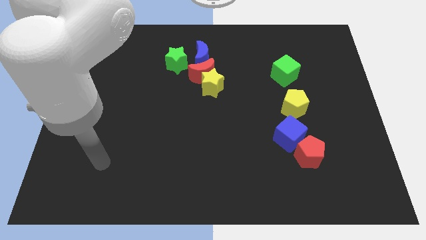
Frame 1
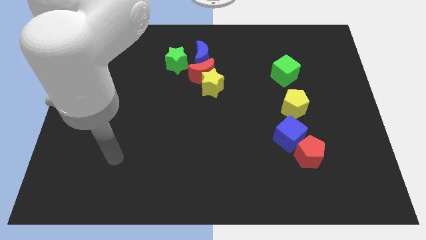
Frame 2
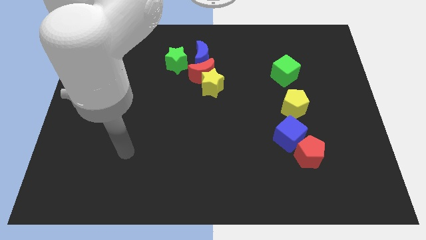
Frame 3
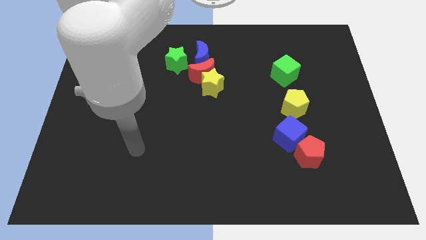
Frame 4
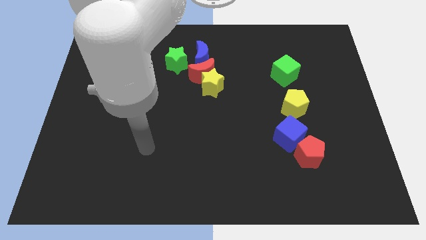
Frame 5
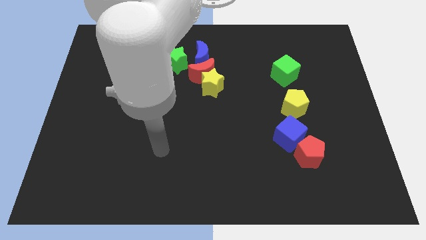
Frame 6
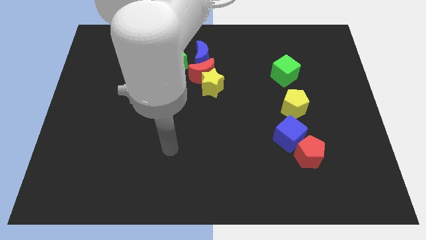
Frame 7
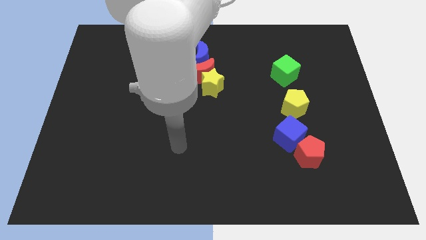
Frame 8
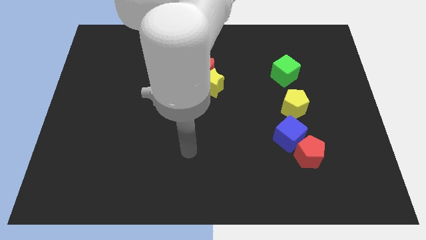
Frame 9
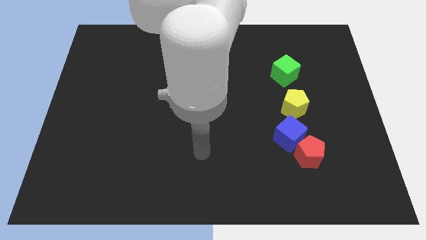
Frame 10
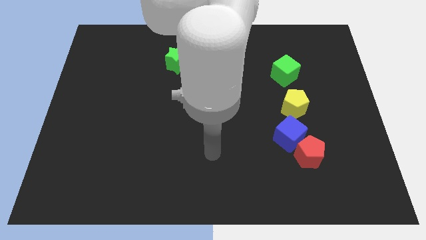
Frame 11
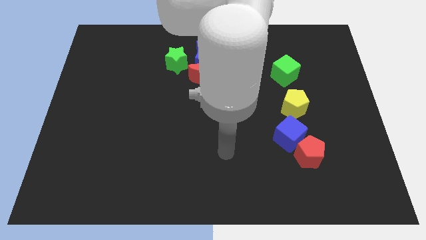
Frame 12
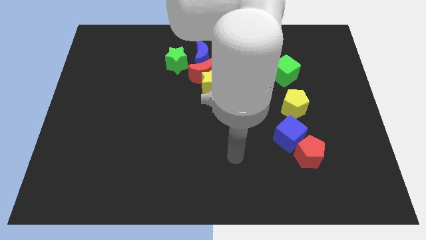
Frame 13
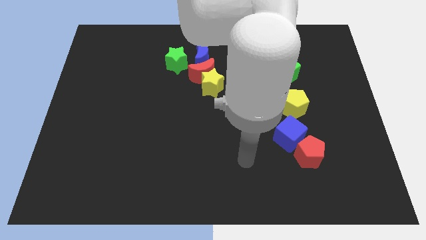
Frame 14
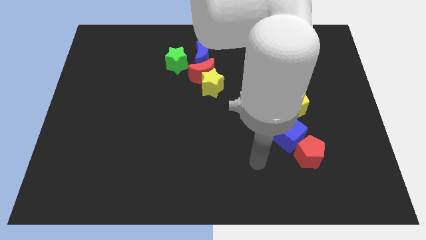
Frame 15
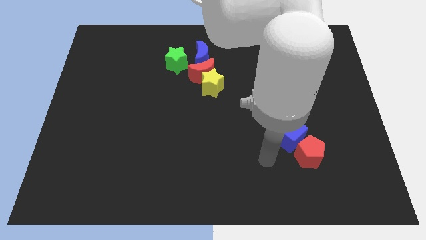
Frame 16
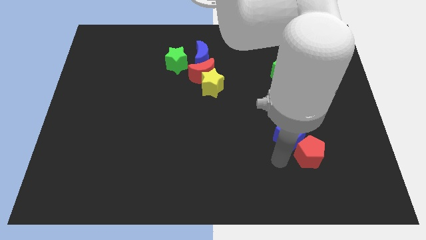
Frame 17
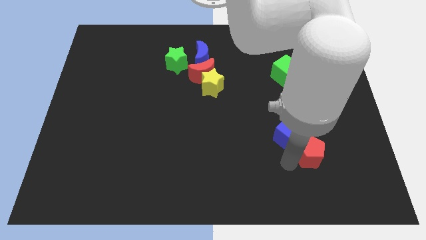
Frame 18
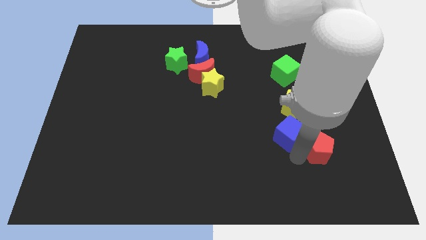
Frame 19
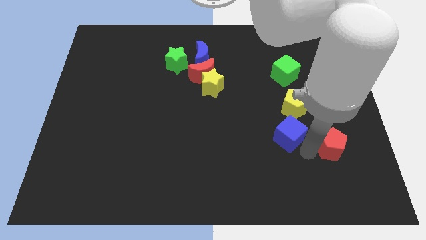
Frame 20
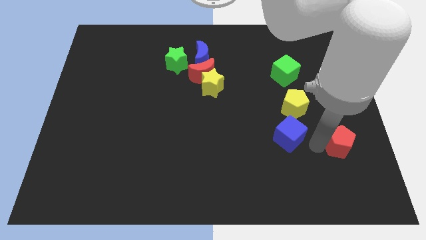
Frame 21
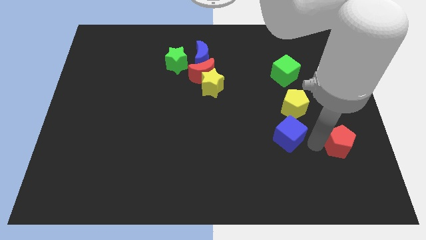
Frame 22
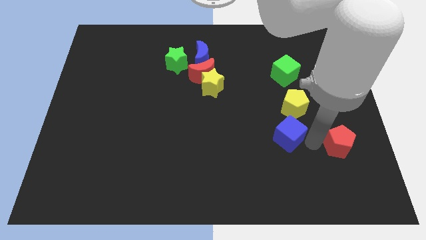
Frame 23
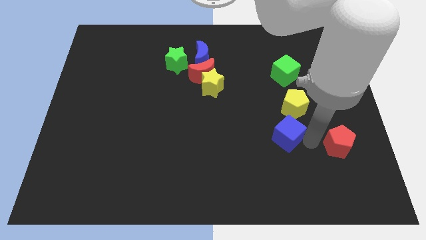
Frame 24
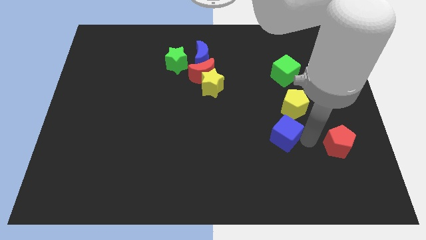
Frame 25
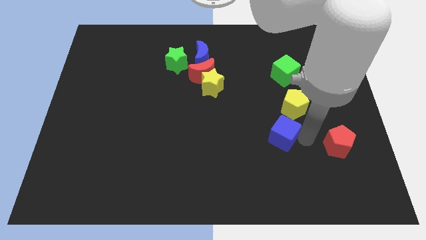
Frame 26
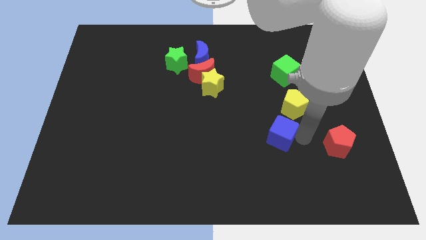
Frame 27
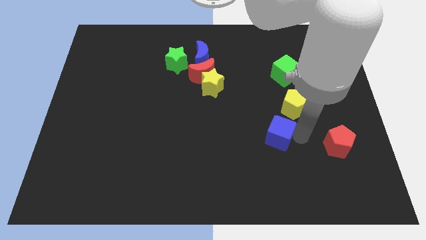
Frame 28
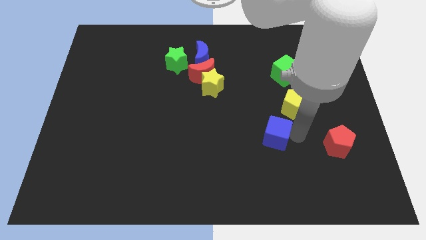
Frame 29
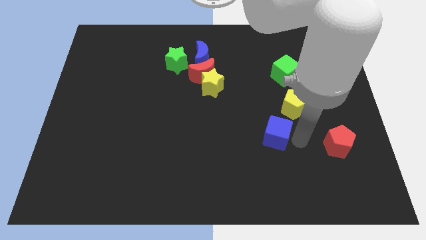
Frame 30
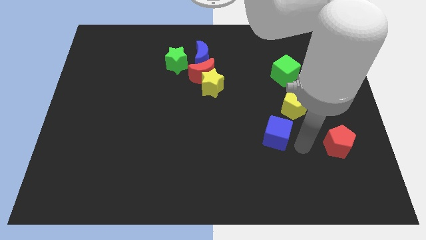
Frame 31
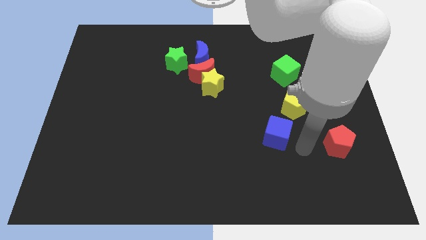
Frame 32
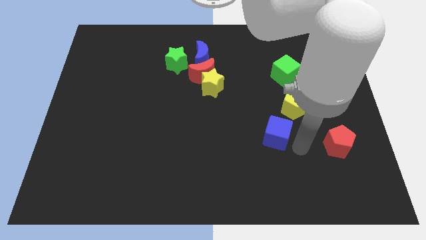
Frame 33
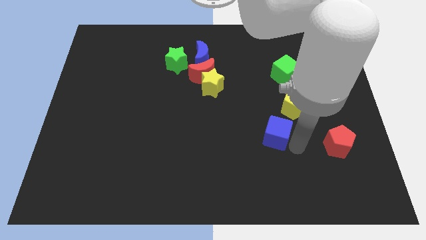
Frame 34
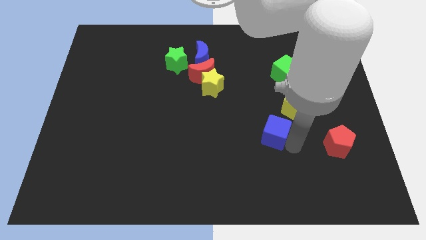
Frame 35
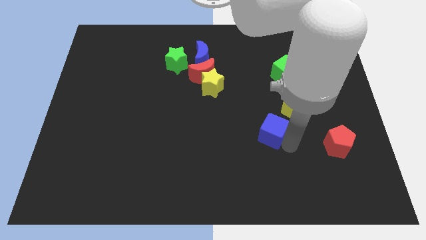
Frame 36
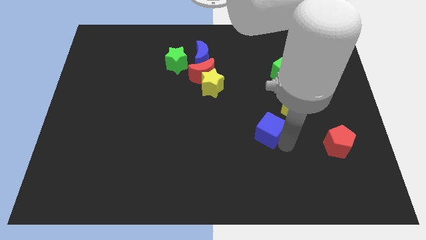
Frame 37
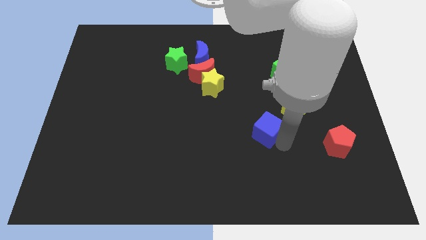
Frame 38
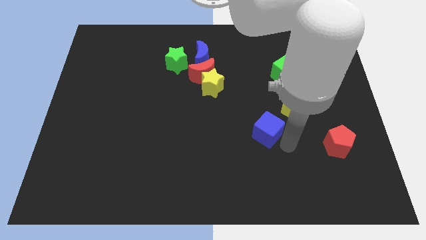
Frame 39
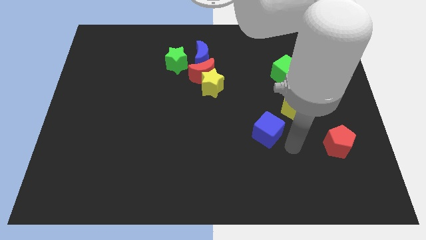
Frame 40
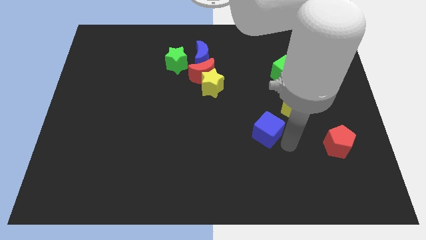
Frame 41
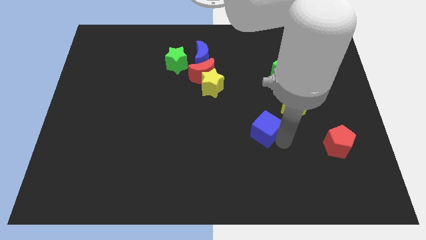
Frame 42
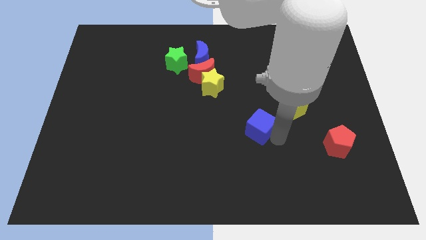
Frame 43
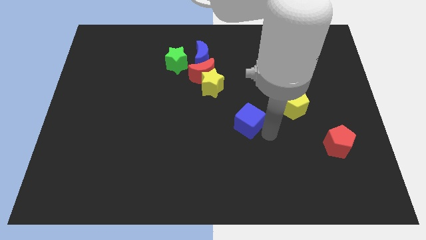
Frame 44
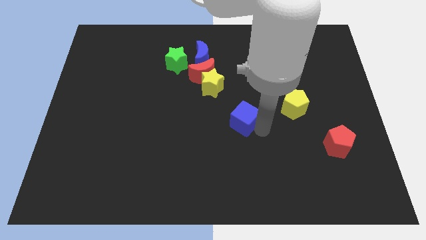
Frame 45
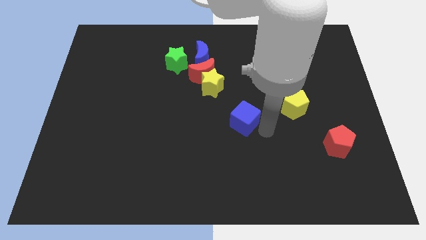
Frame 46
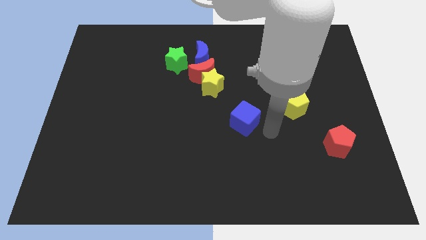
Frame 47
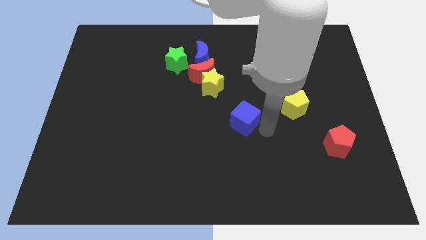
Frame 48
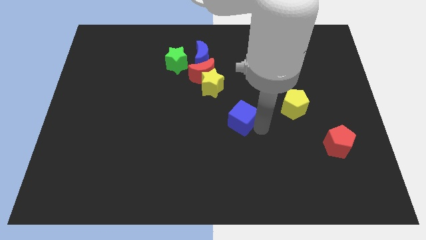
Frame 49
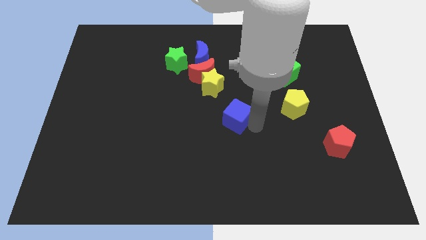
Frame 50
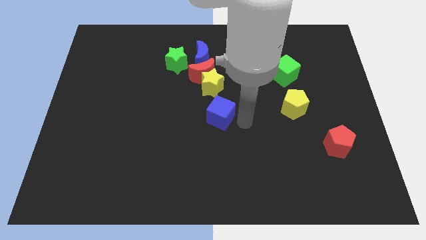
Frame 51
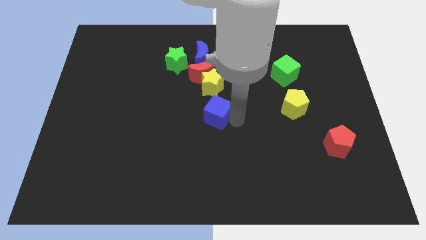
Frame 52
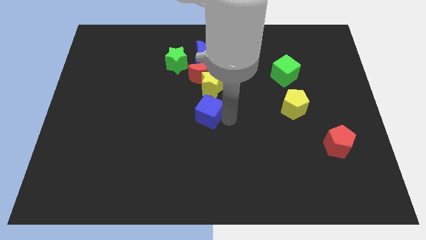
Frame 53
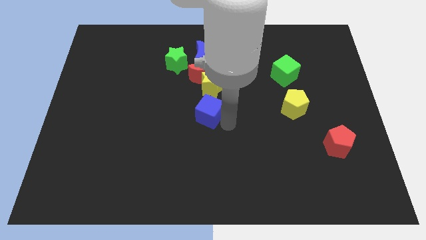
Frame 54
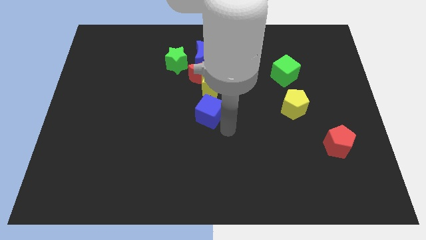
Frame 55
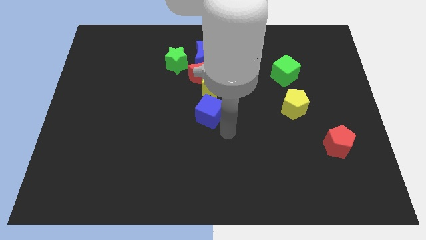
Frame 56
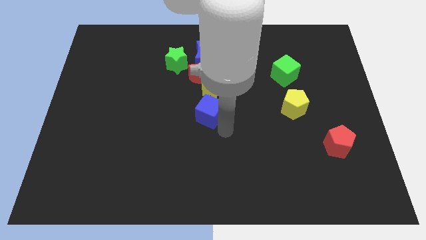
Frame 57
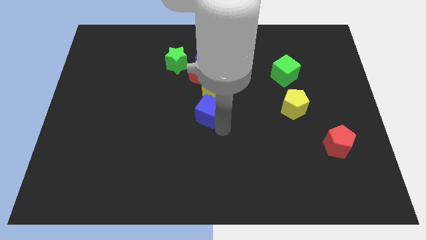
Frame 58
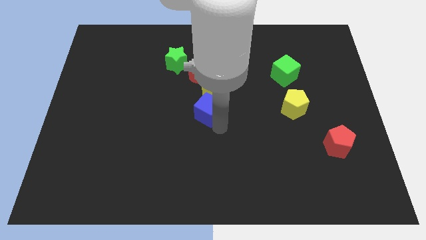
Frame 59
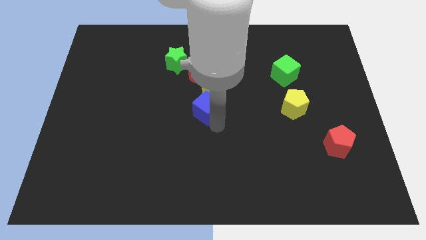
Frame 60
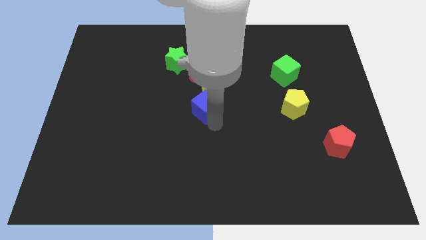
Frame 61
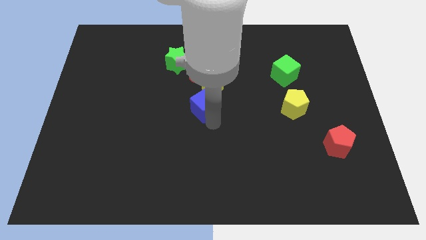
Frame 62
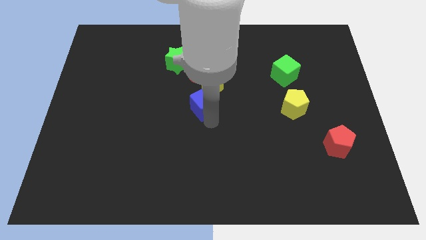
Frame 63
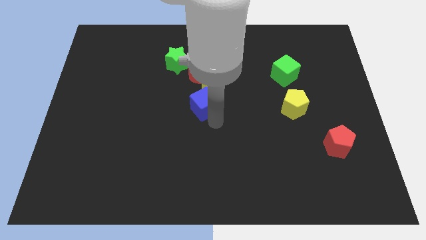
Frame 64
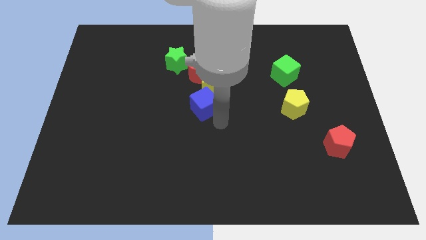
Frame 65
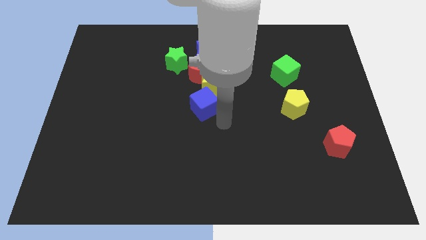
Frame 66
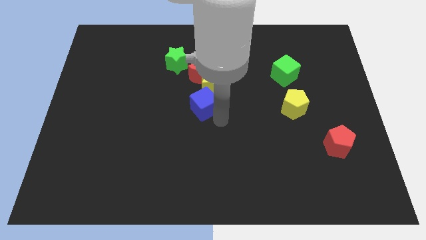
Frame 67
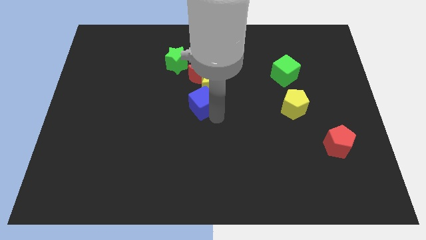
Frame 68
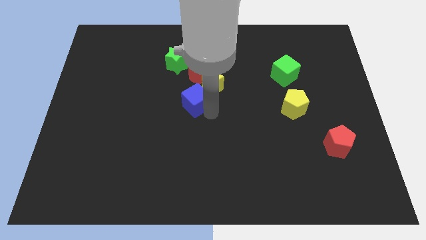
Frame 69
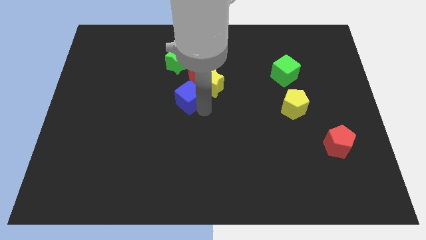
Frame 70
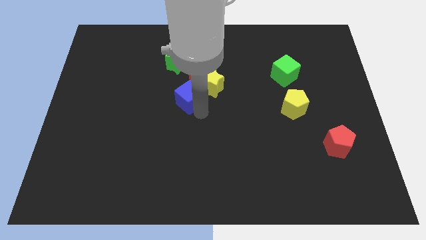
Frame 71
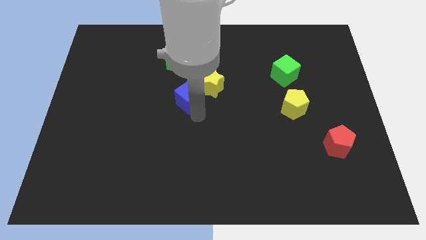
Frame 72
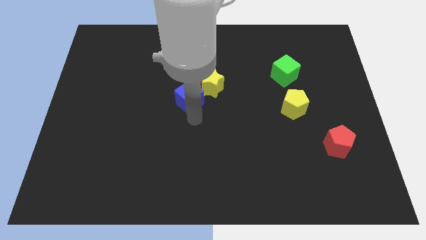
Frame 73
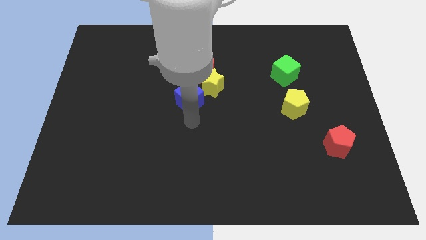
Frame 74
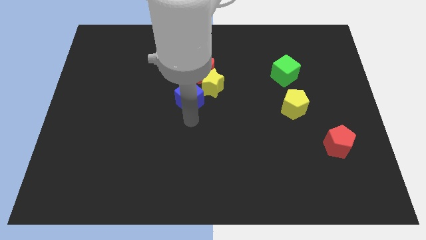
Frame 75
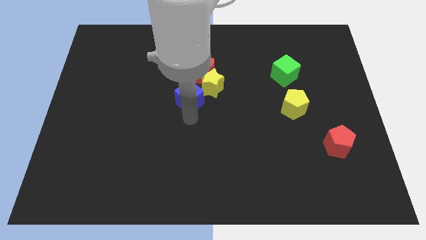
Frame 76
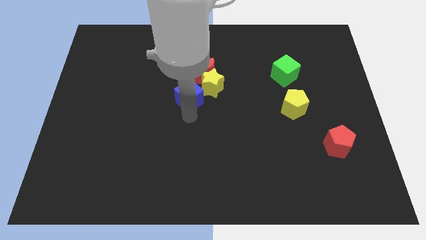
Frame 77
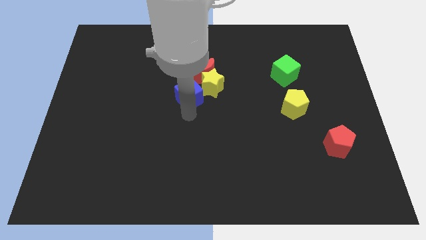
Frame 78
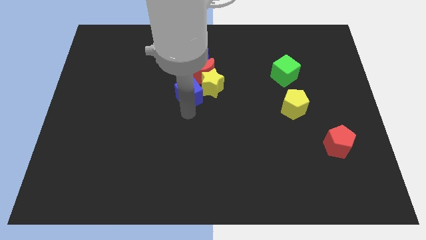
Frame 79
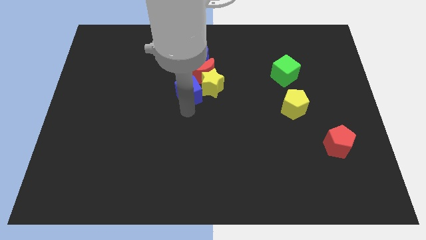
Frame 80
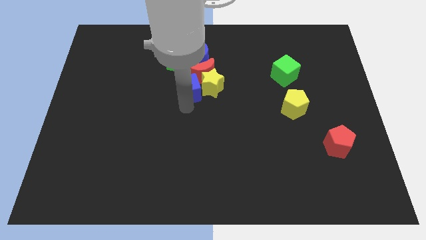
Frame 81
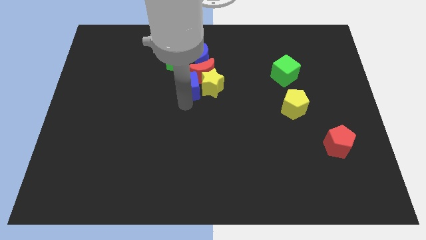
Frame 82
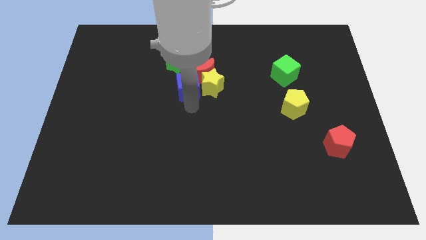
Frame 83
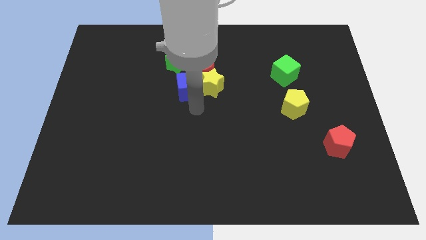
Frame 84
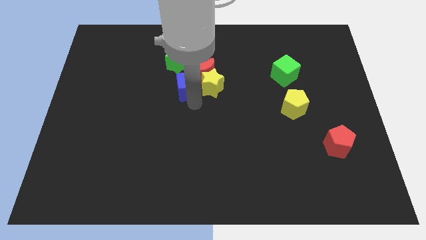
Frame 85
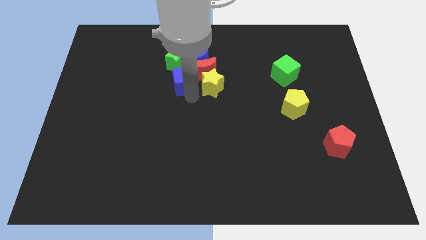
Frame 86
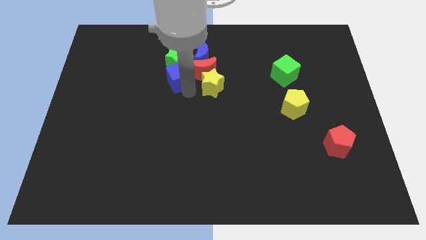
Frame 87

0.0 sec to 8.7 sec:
put the blue cube close to the green star
